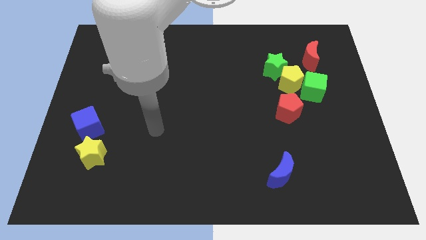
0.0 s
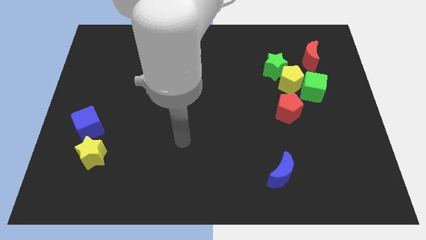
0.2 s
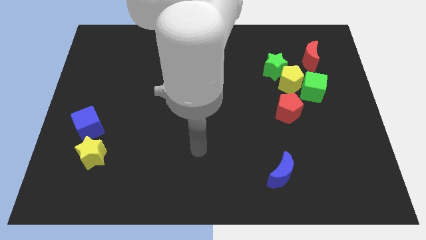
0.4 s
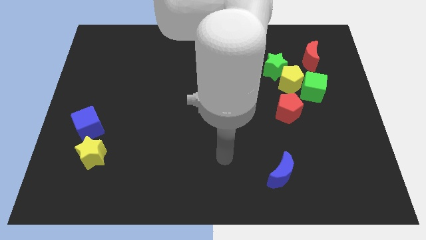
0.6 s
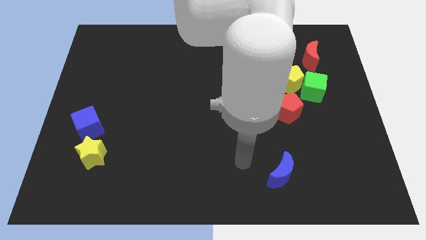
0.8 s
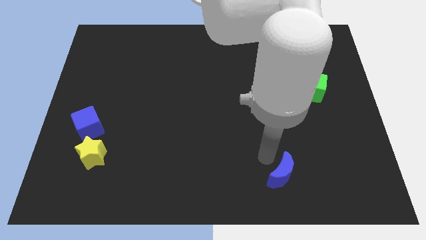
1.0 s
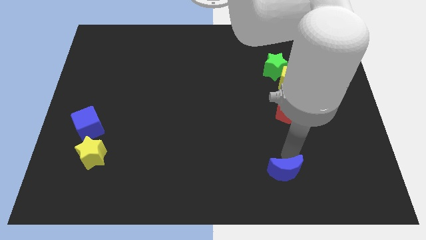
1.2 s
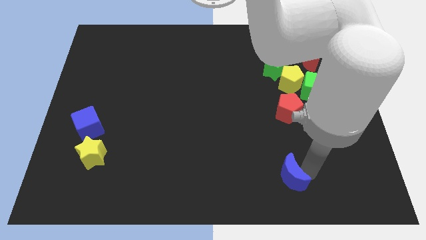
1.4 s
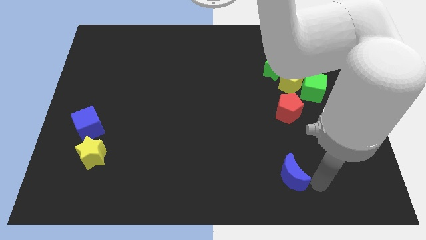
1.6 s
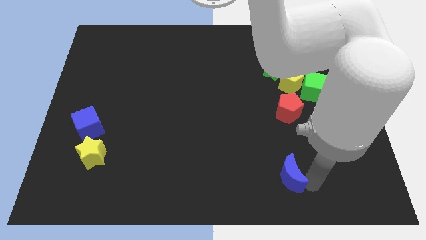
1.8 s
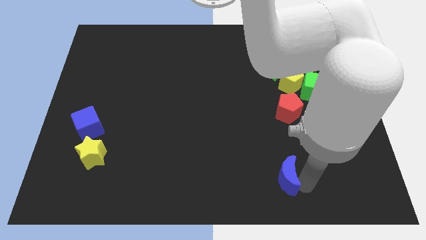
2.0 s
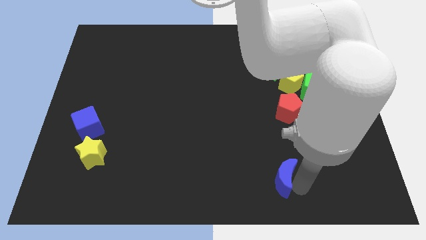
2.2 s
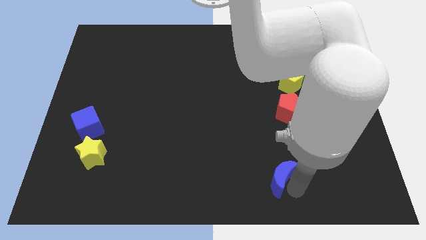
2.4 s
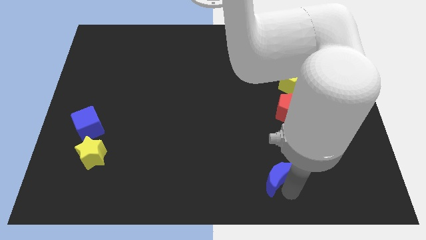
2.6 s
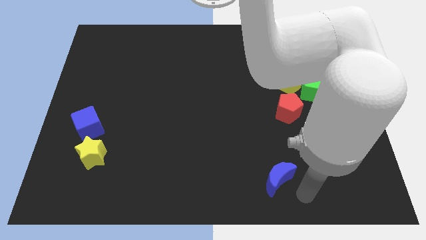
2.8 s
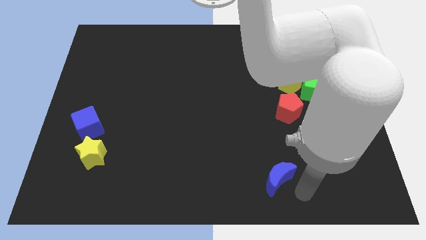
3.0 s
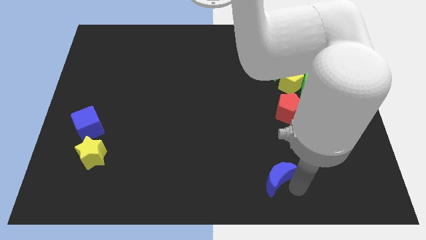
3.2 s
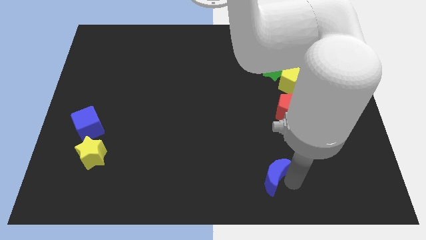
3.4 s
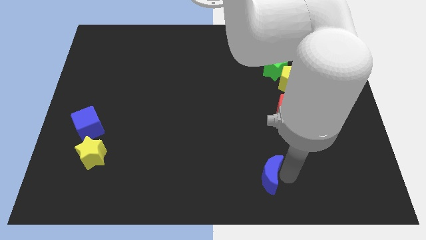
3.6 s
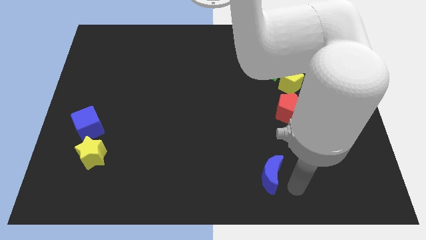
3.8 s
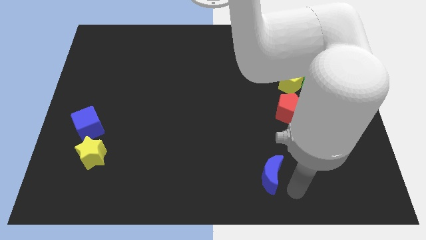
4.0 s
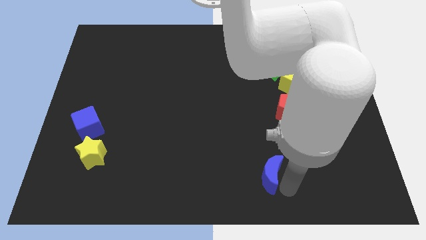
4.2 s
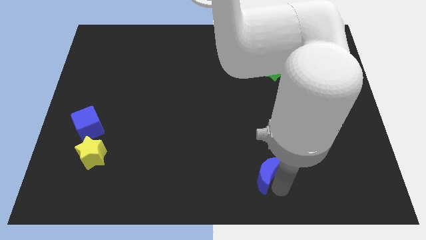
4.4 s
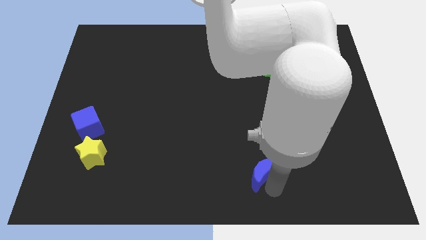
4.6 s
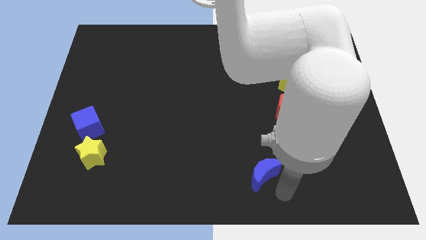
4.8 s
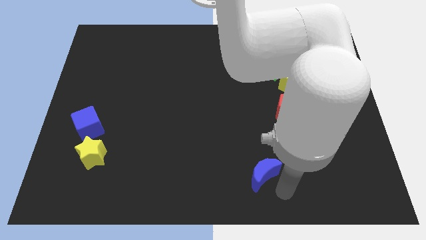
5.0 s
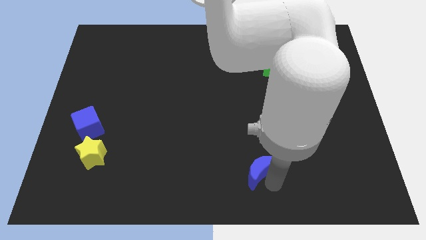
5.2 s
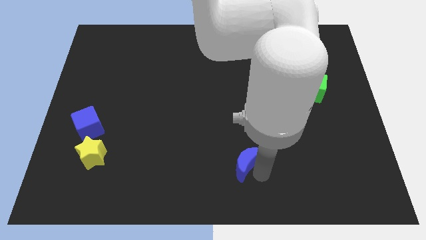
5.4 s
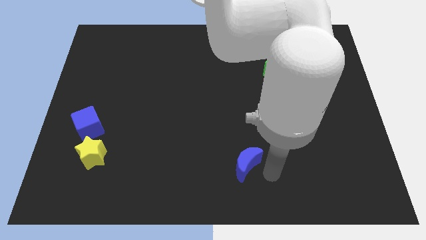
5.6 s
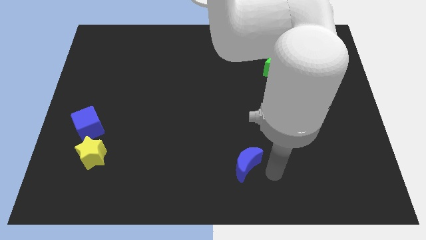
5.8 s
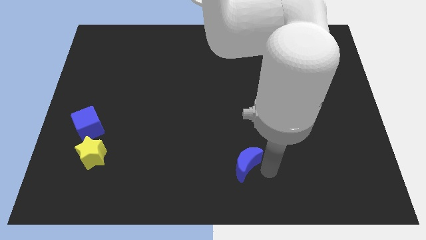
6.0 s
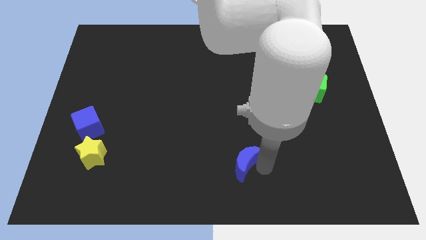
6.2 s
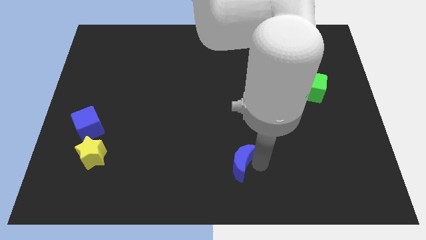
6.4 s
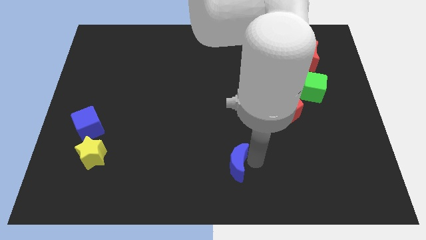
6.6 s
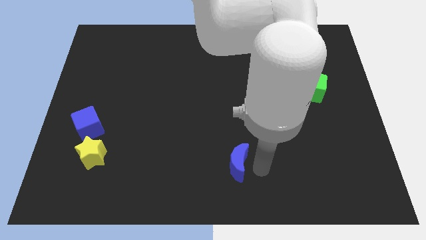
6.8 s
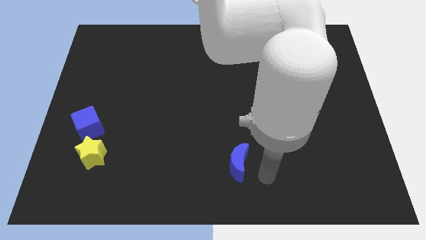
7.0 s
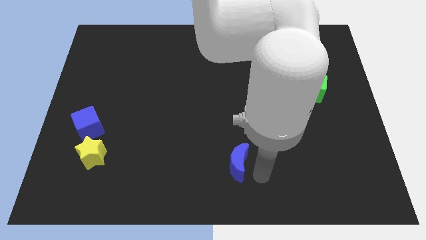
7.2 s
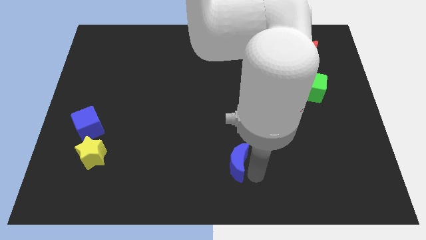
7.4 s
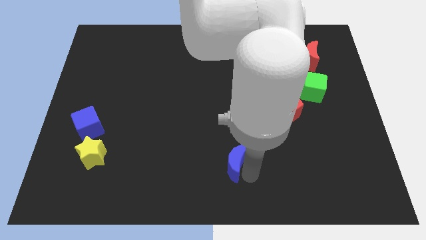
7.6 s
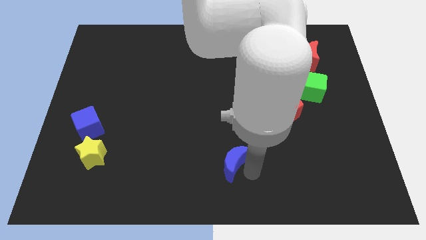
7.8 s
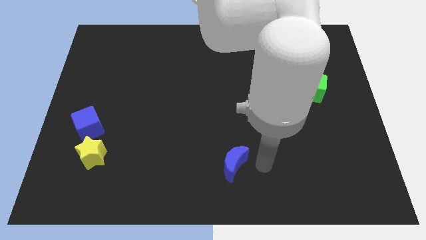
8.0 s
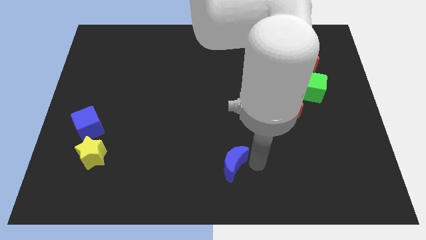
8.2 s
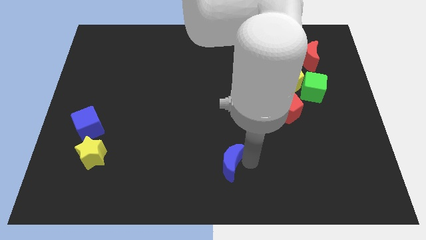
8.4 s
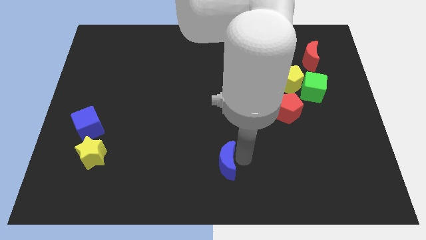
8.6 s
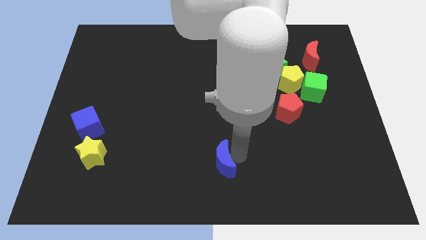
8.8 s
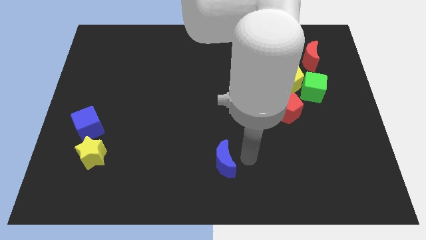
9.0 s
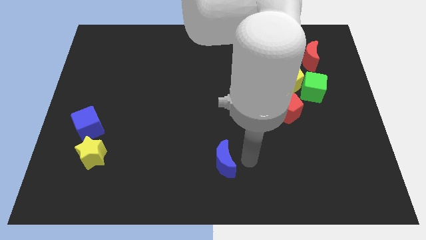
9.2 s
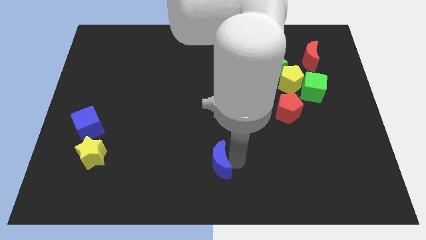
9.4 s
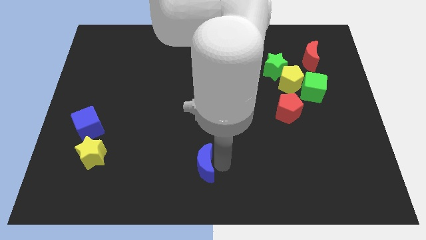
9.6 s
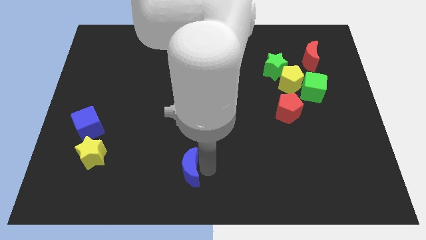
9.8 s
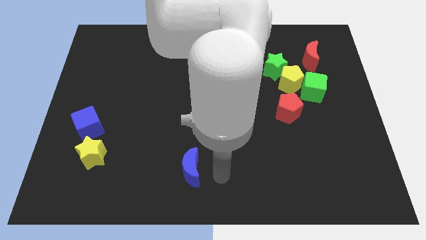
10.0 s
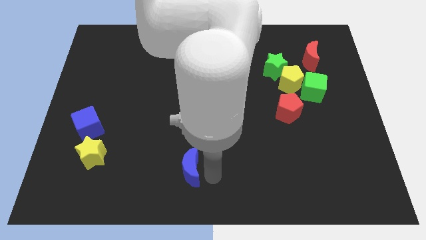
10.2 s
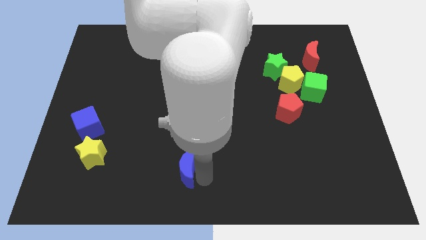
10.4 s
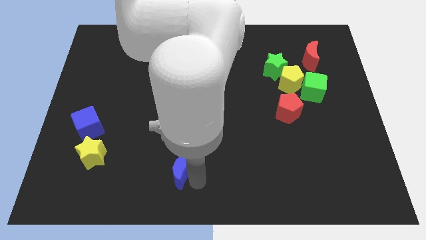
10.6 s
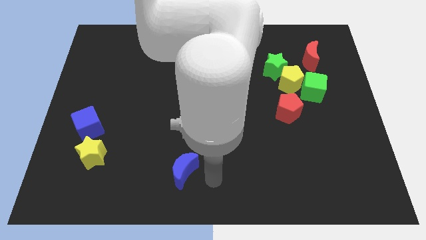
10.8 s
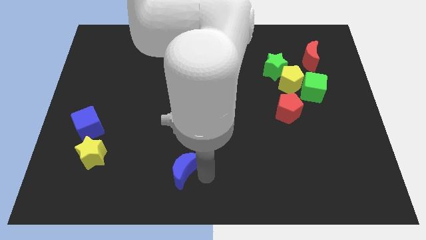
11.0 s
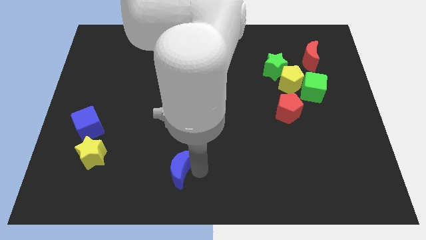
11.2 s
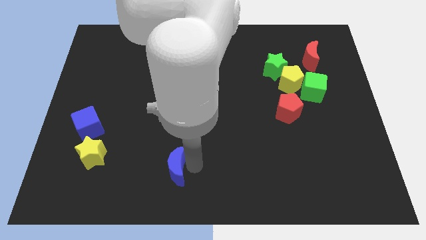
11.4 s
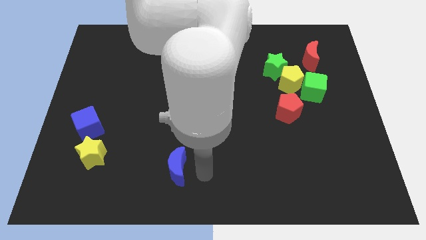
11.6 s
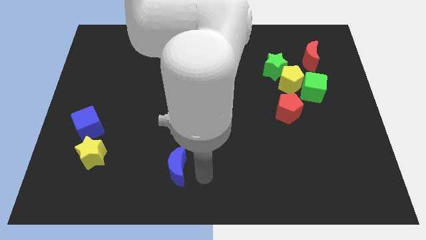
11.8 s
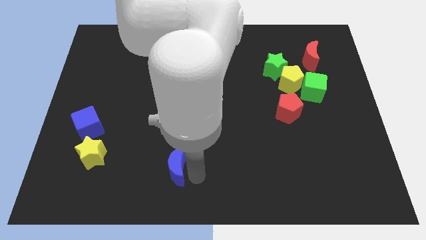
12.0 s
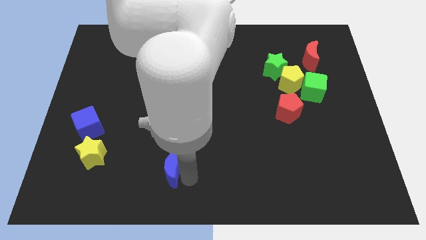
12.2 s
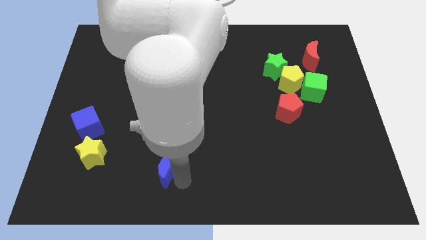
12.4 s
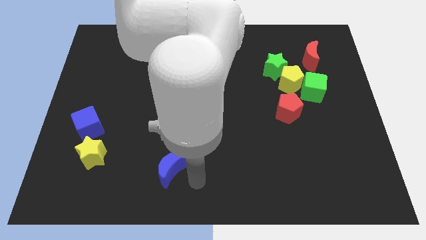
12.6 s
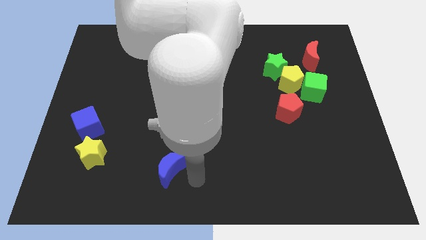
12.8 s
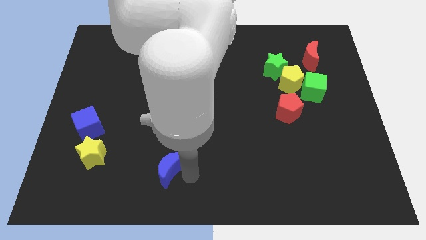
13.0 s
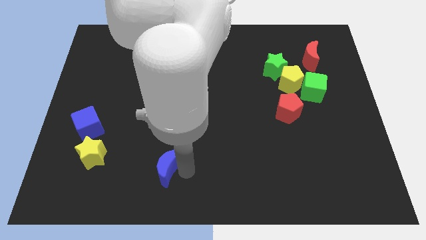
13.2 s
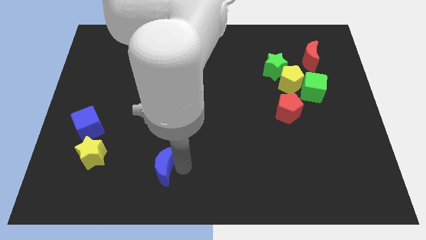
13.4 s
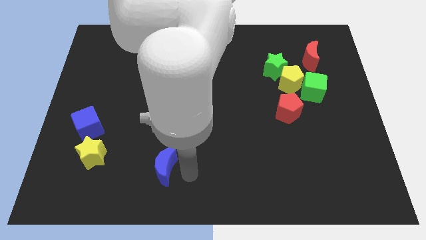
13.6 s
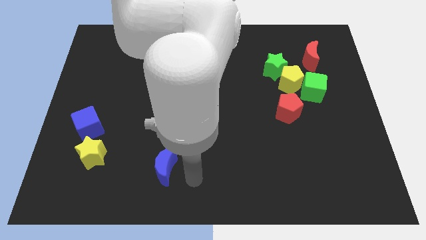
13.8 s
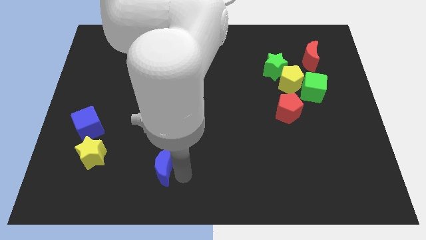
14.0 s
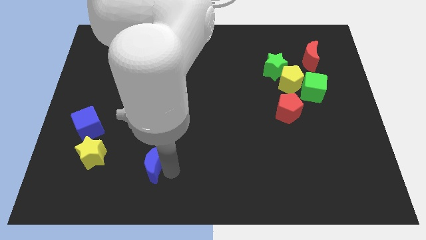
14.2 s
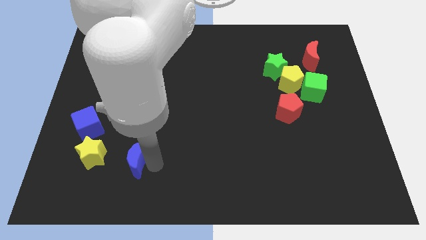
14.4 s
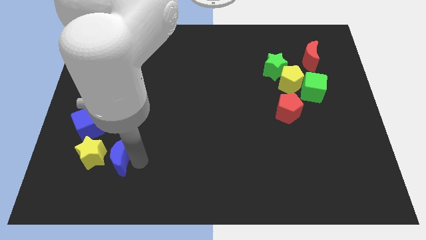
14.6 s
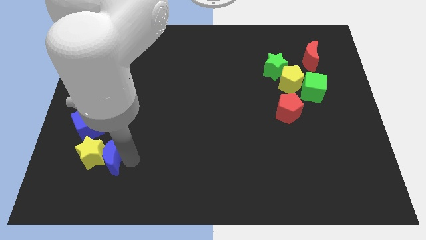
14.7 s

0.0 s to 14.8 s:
push the blue moon next to the yellow star

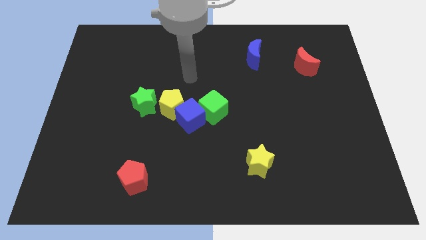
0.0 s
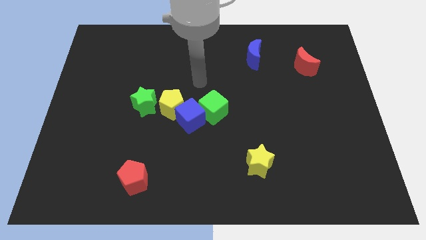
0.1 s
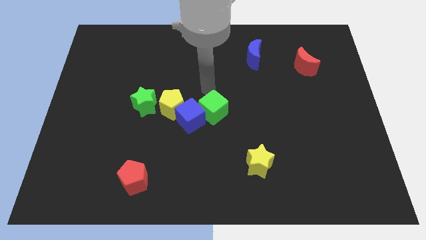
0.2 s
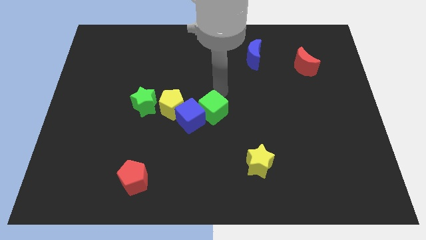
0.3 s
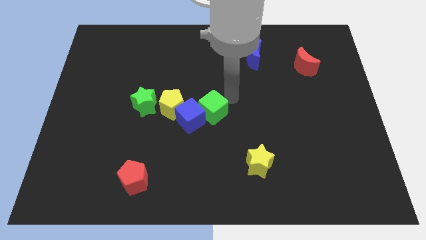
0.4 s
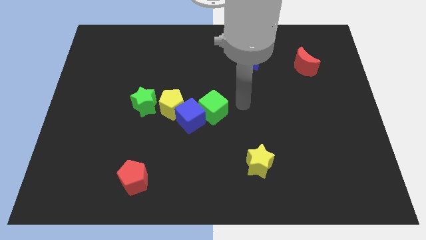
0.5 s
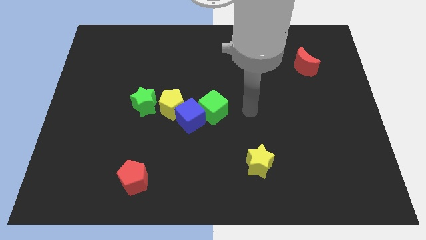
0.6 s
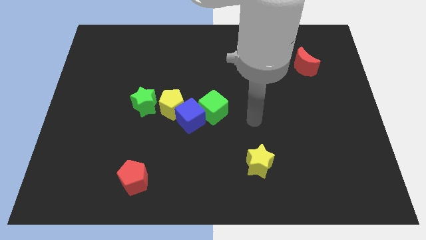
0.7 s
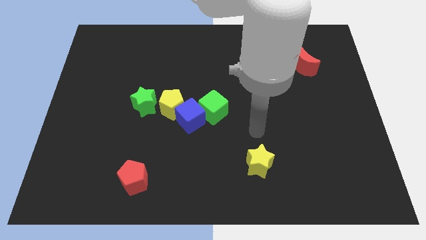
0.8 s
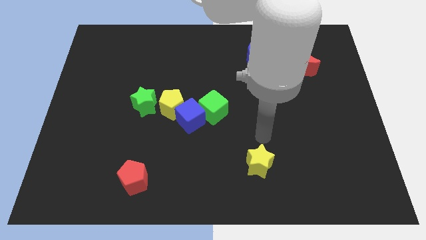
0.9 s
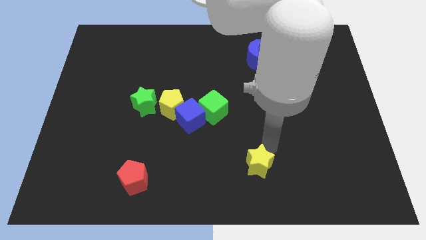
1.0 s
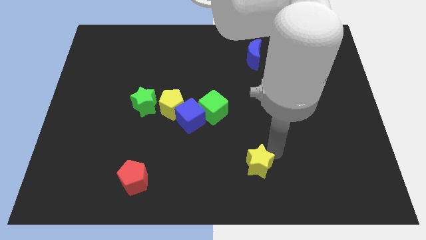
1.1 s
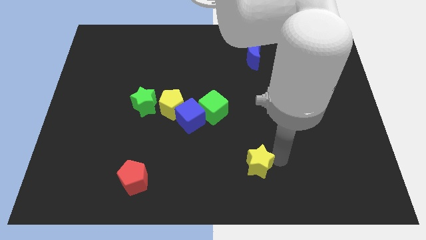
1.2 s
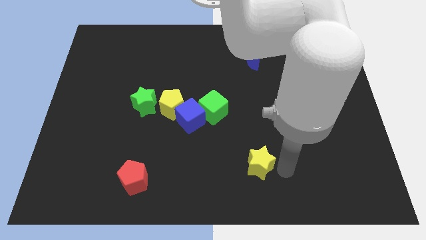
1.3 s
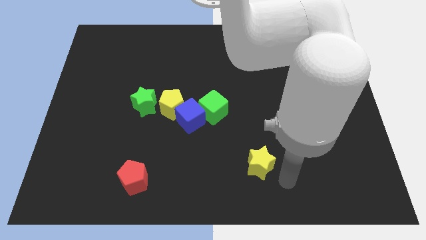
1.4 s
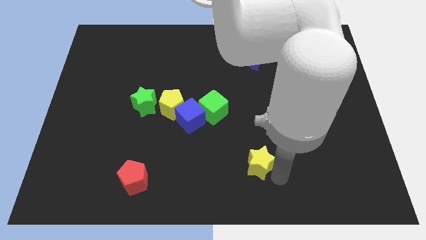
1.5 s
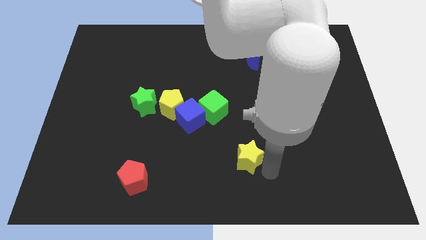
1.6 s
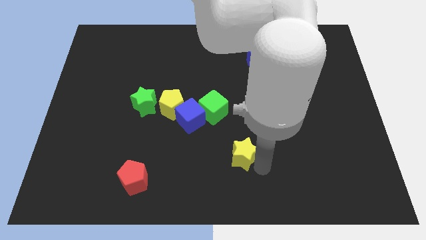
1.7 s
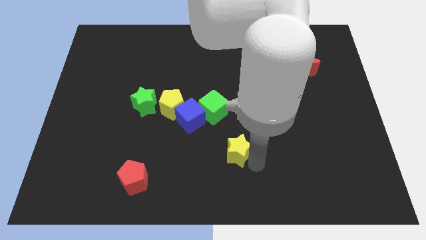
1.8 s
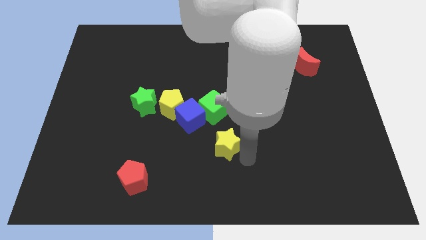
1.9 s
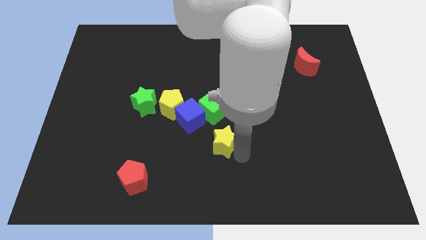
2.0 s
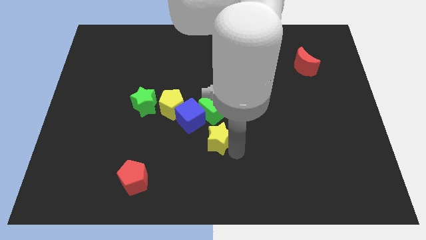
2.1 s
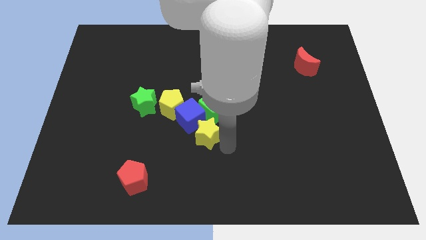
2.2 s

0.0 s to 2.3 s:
move the yellow star towards the blue cube
